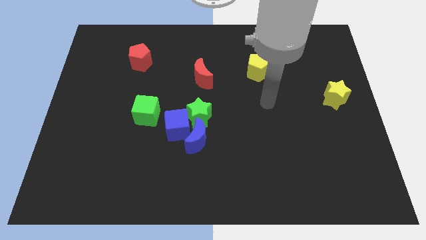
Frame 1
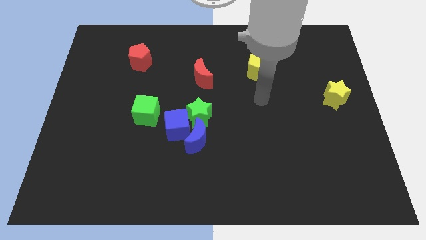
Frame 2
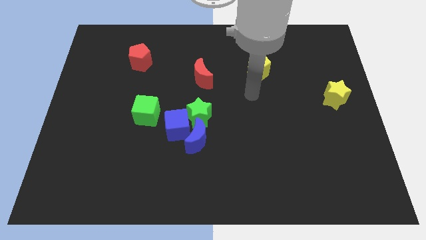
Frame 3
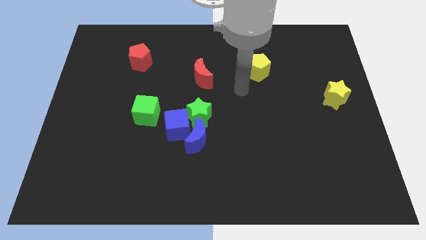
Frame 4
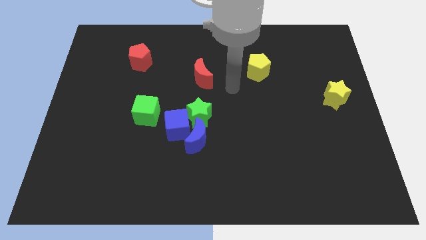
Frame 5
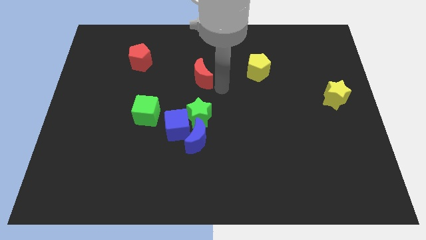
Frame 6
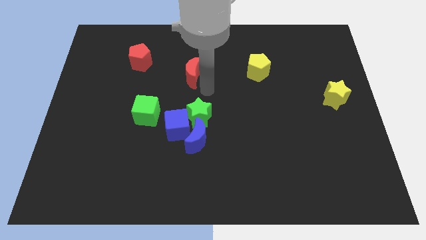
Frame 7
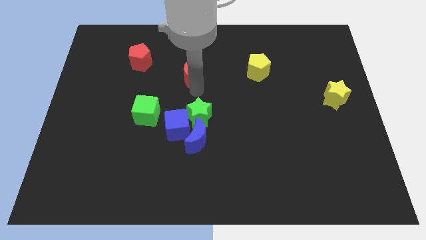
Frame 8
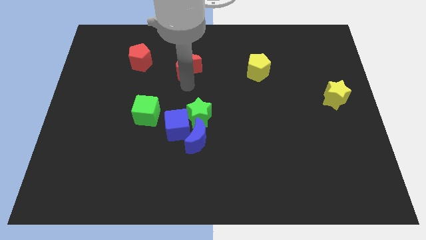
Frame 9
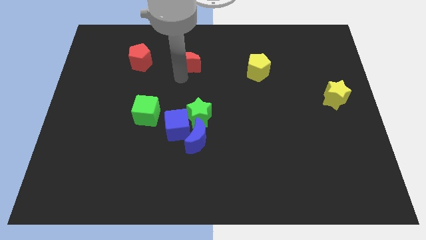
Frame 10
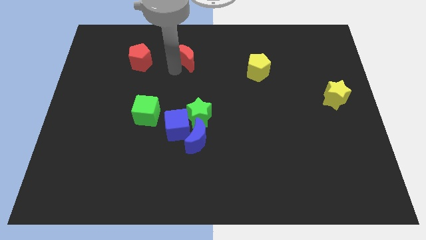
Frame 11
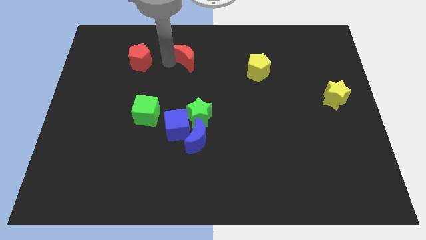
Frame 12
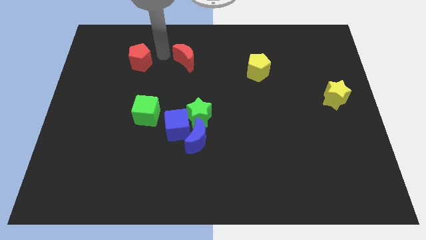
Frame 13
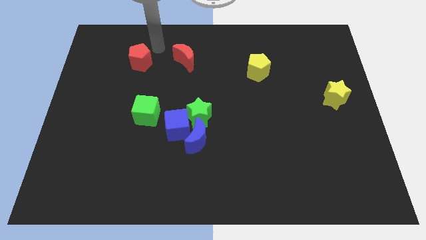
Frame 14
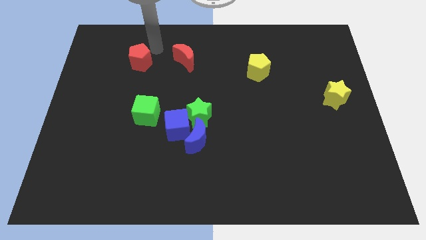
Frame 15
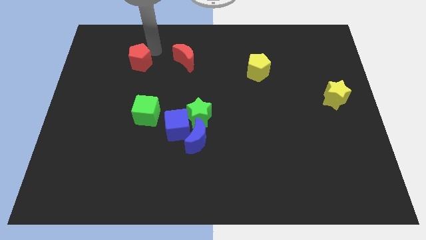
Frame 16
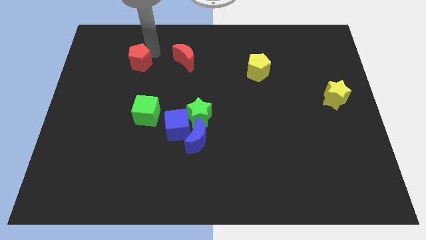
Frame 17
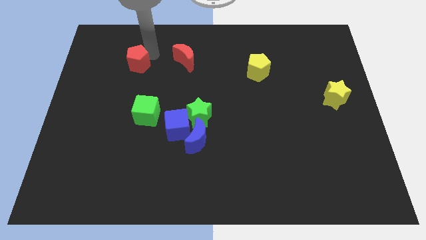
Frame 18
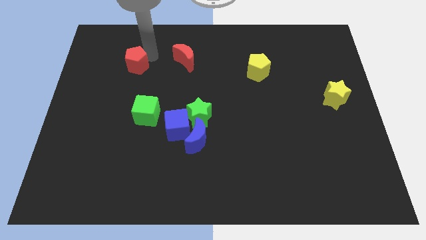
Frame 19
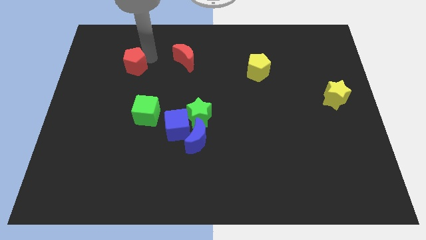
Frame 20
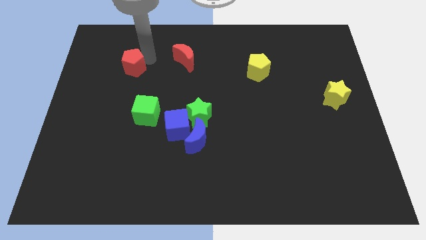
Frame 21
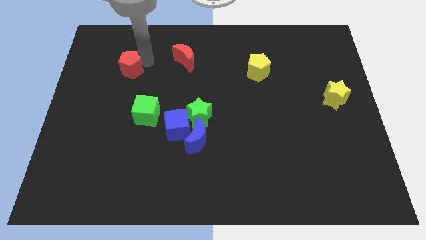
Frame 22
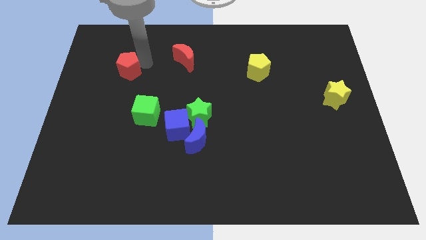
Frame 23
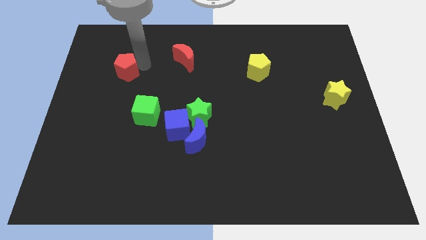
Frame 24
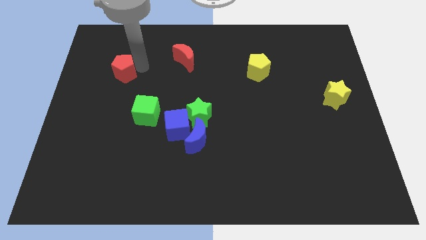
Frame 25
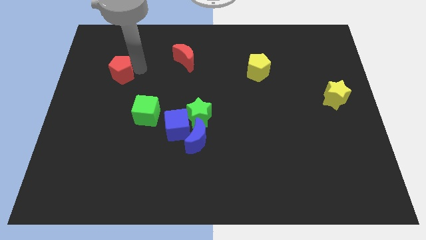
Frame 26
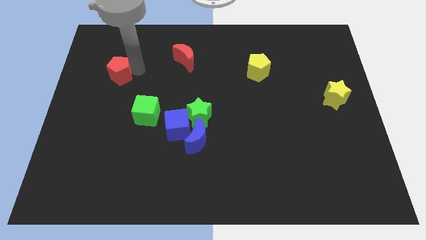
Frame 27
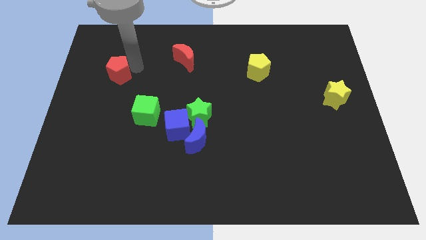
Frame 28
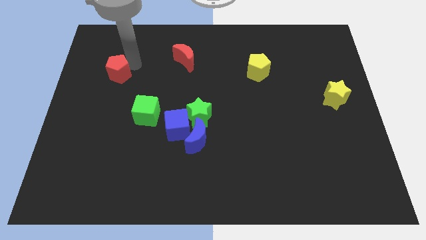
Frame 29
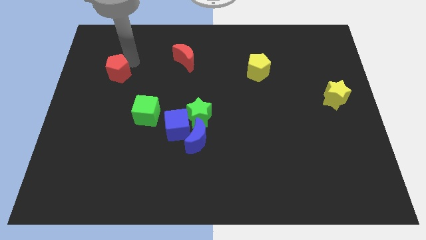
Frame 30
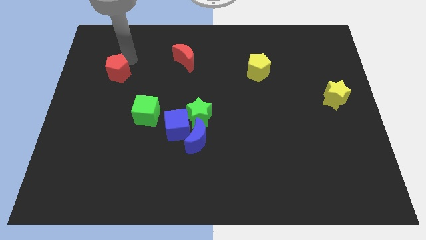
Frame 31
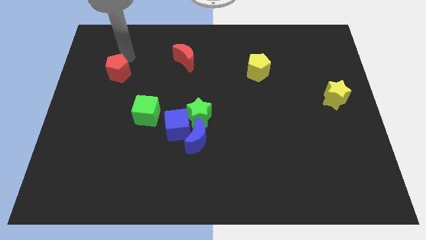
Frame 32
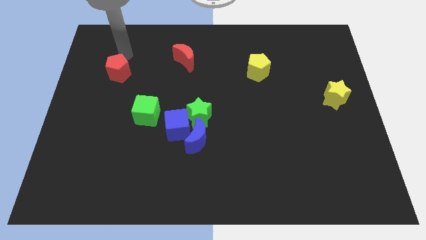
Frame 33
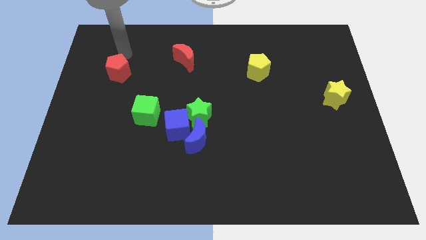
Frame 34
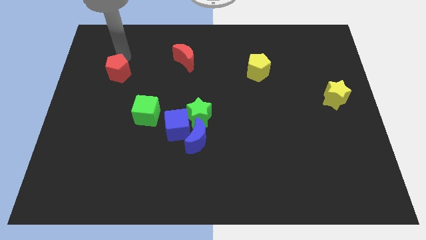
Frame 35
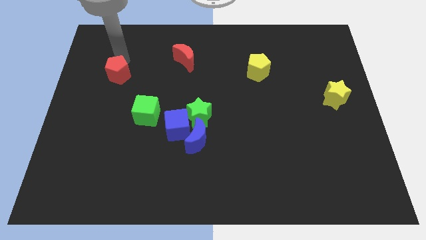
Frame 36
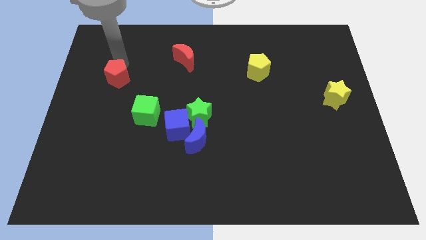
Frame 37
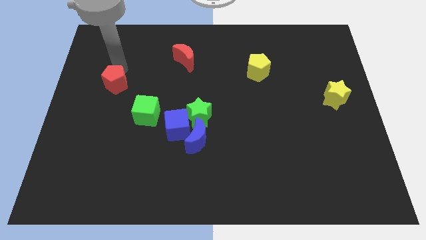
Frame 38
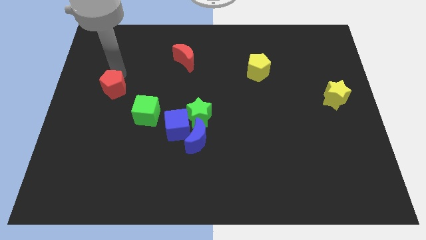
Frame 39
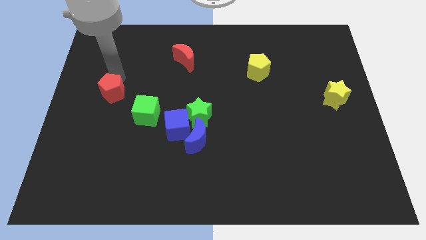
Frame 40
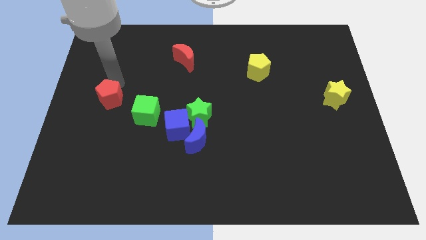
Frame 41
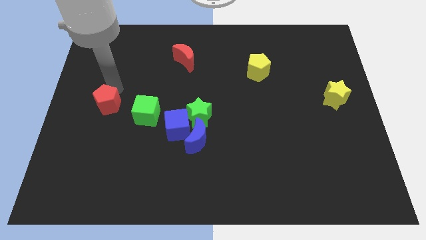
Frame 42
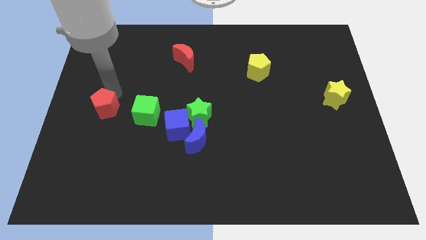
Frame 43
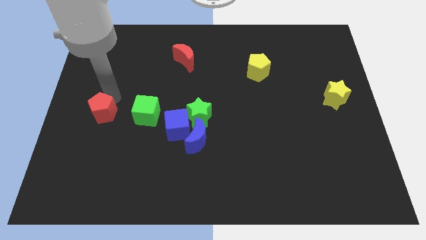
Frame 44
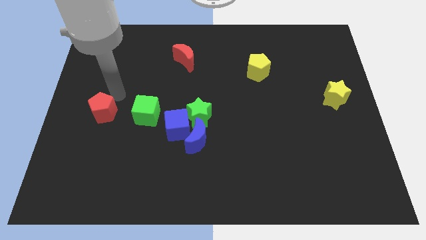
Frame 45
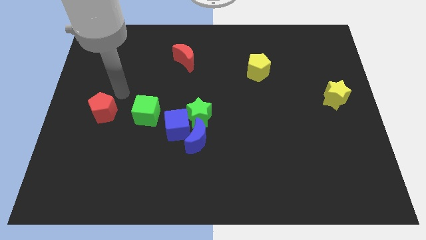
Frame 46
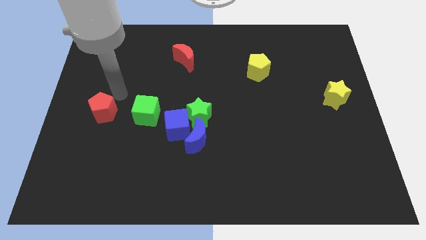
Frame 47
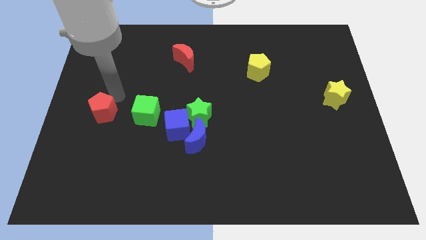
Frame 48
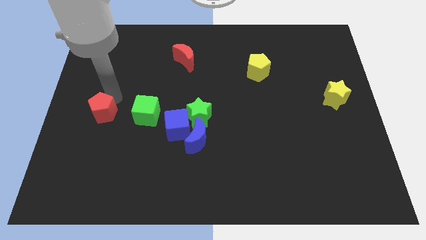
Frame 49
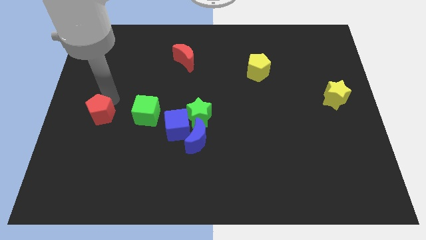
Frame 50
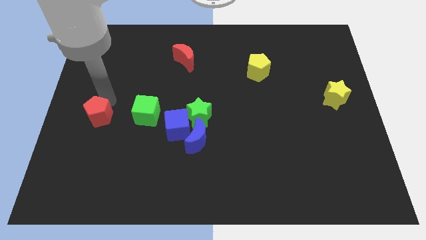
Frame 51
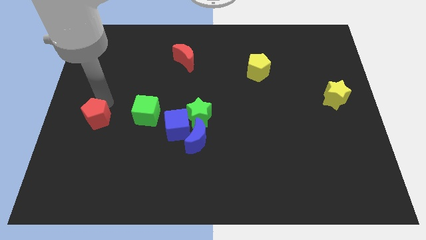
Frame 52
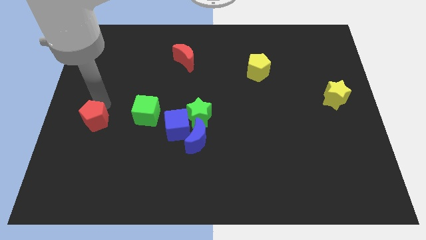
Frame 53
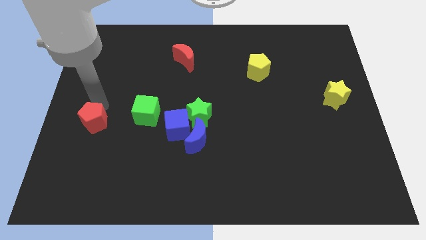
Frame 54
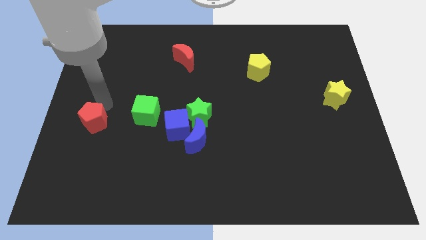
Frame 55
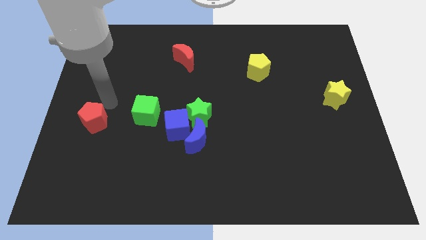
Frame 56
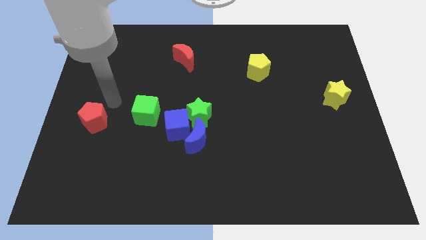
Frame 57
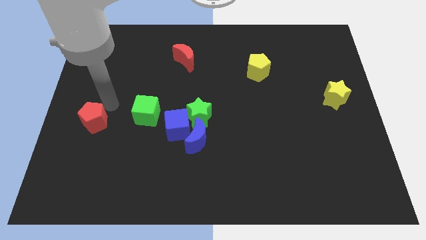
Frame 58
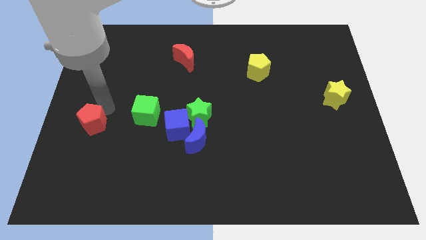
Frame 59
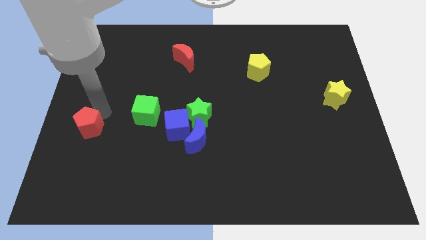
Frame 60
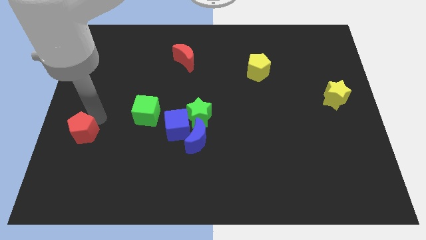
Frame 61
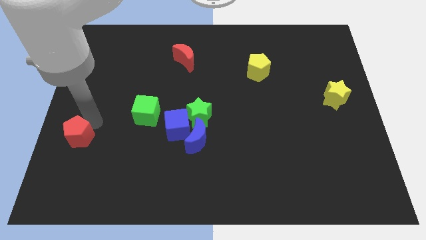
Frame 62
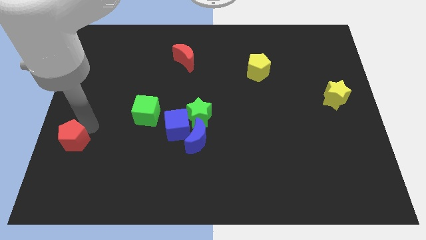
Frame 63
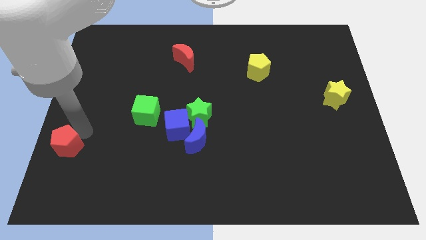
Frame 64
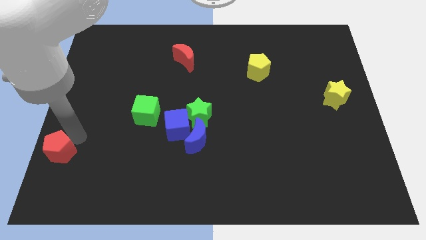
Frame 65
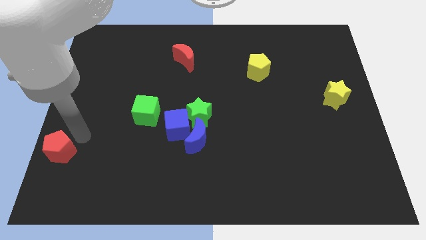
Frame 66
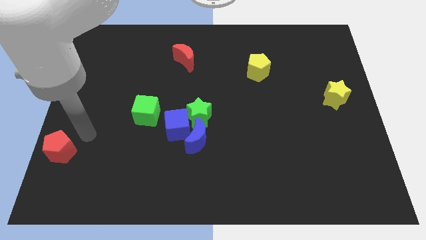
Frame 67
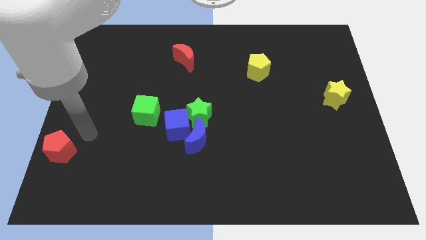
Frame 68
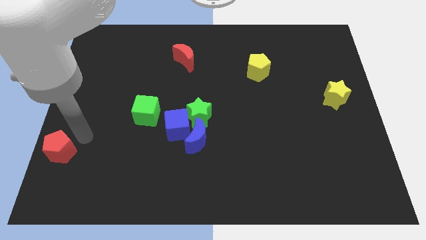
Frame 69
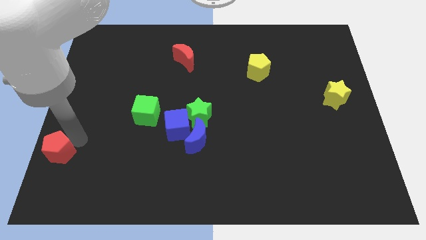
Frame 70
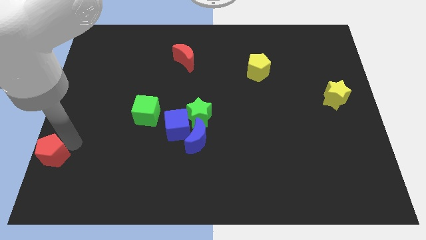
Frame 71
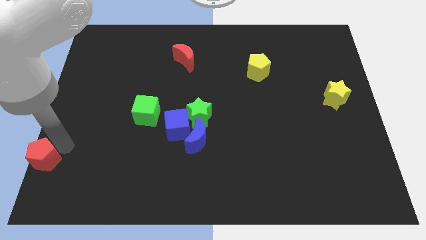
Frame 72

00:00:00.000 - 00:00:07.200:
slide the red pentagon to the bottom left
